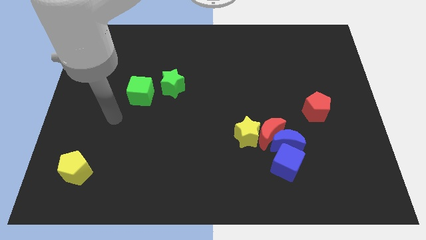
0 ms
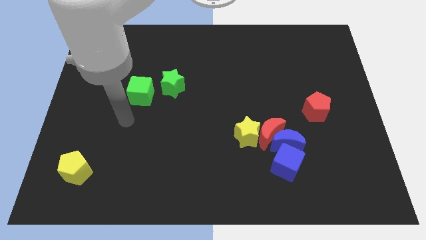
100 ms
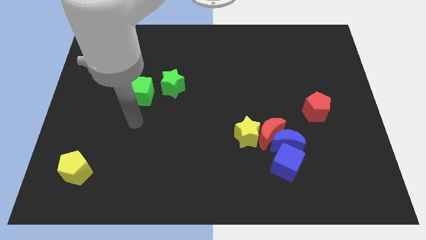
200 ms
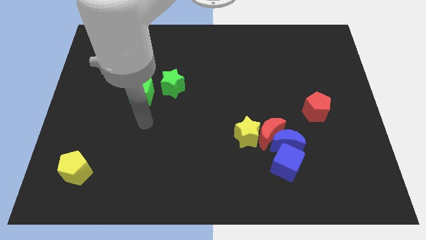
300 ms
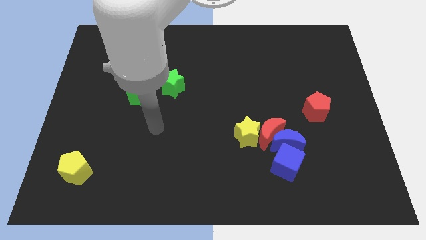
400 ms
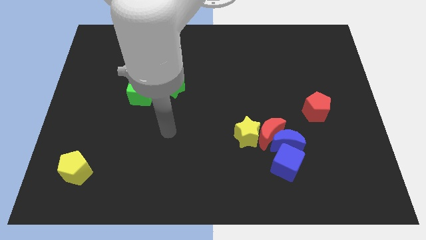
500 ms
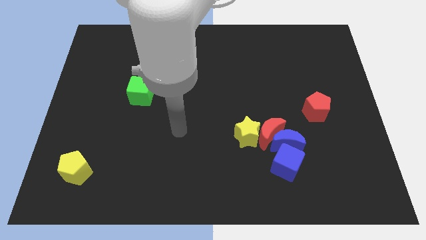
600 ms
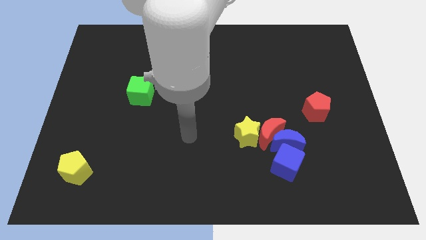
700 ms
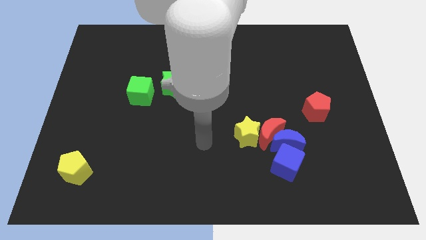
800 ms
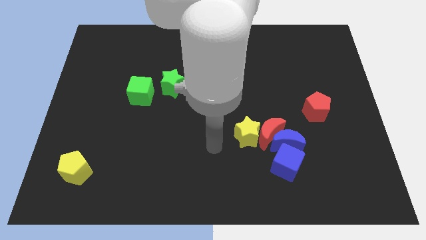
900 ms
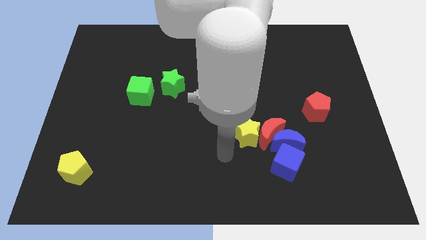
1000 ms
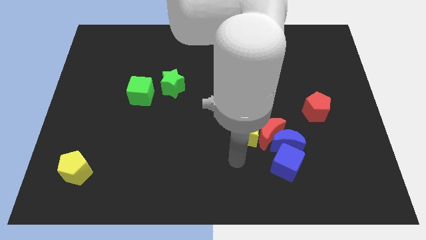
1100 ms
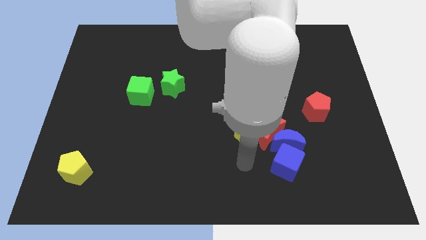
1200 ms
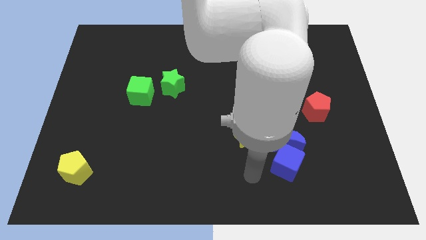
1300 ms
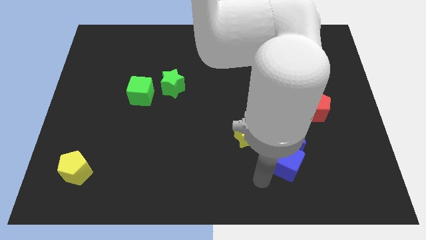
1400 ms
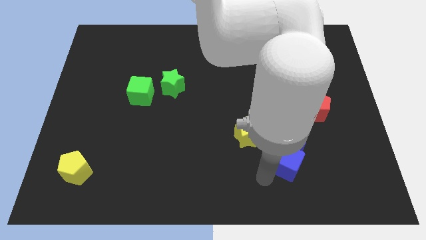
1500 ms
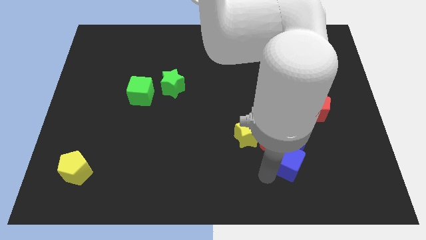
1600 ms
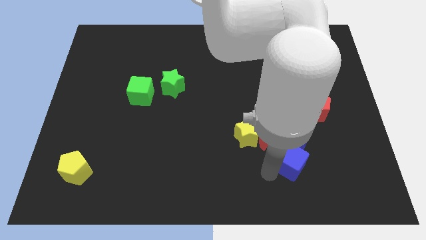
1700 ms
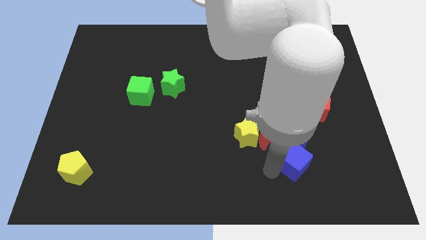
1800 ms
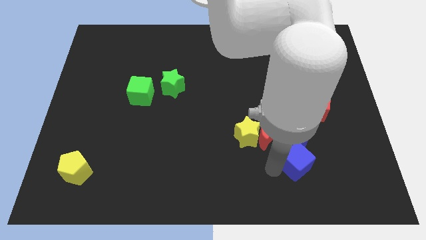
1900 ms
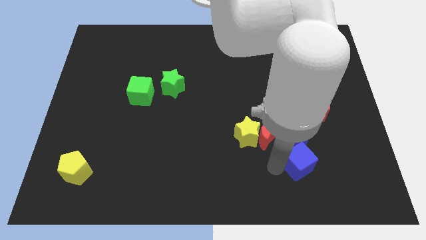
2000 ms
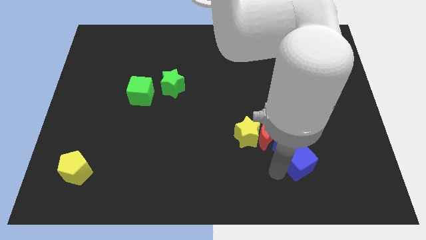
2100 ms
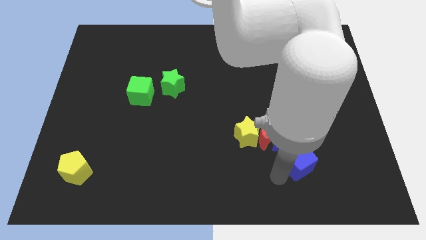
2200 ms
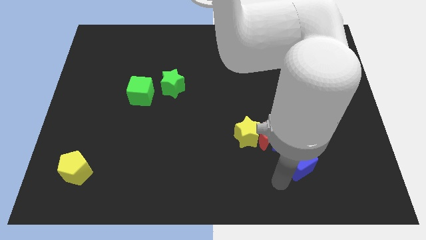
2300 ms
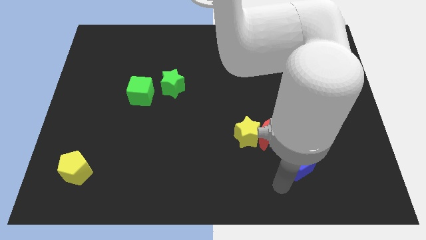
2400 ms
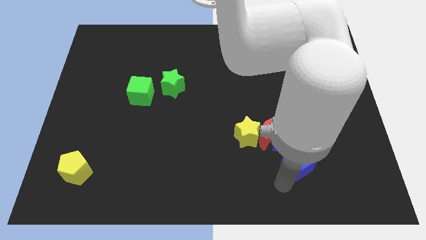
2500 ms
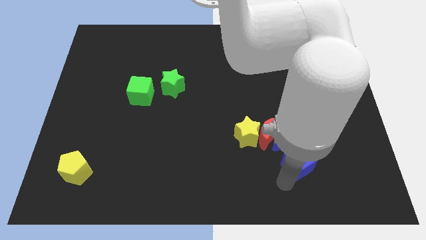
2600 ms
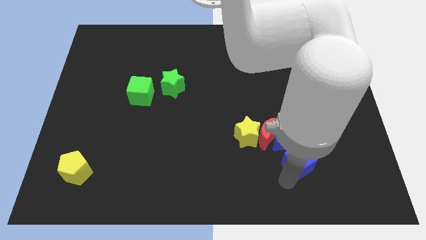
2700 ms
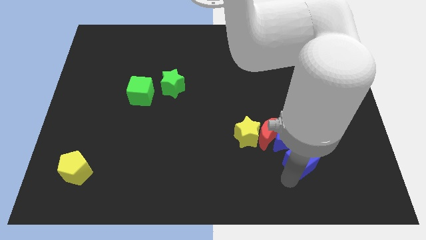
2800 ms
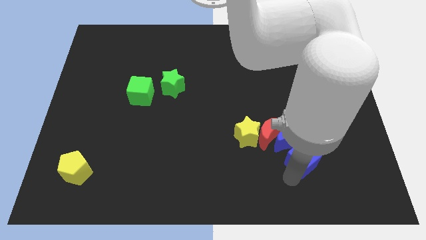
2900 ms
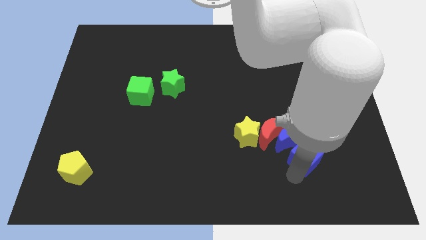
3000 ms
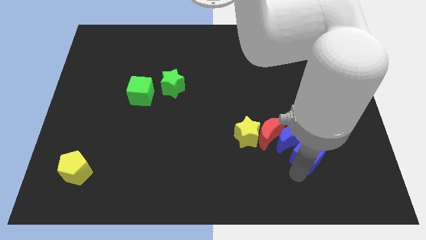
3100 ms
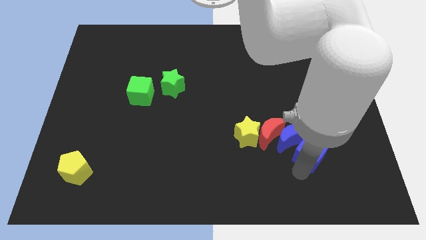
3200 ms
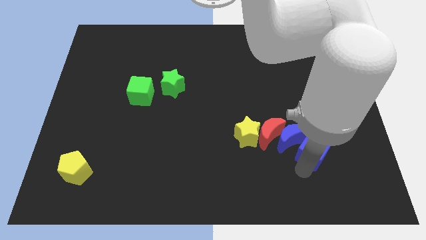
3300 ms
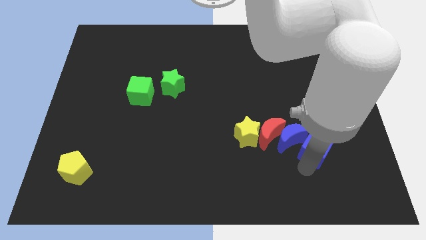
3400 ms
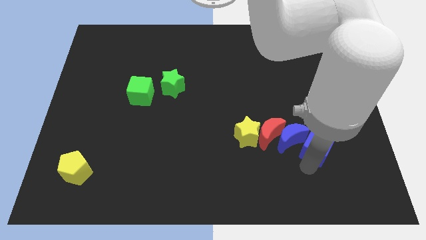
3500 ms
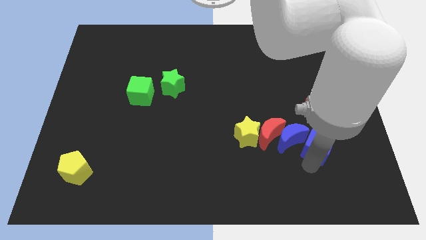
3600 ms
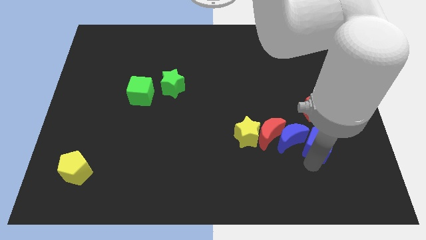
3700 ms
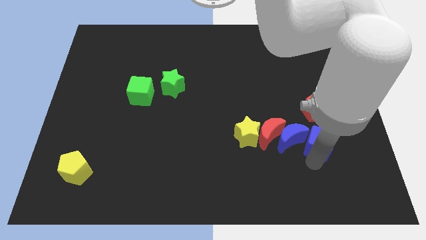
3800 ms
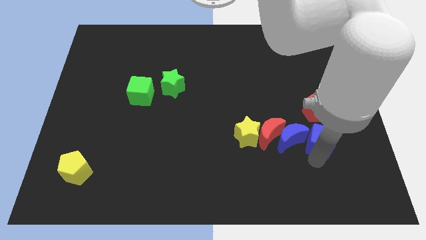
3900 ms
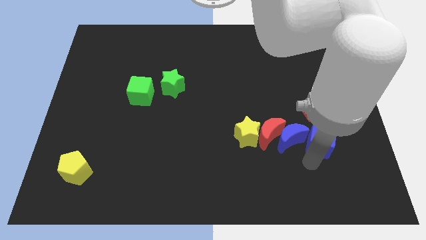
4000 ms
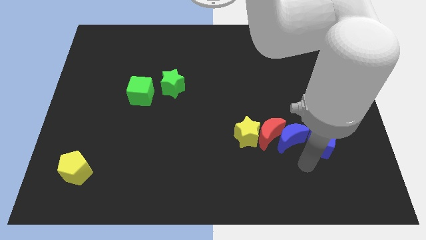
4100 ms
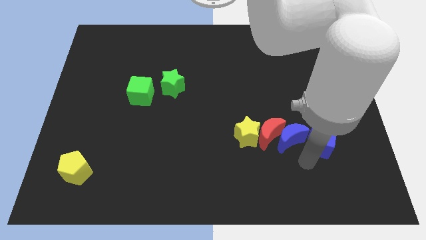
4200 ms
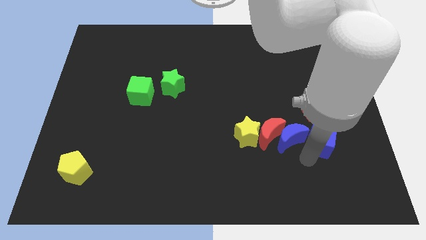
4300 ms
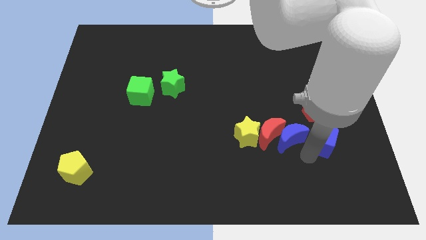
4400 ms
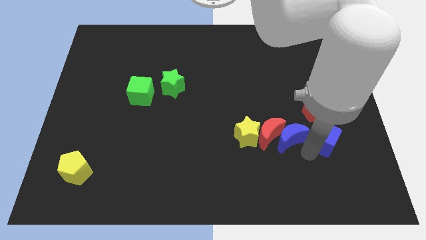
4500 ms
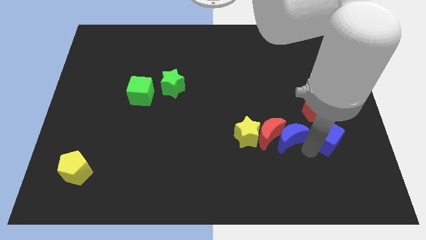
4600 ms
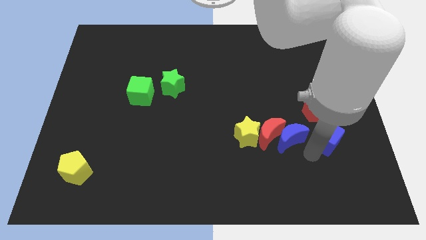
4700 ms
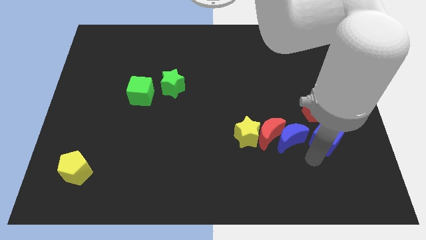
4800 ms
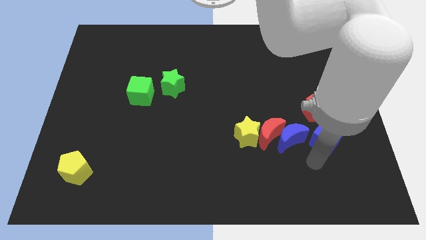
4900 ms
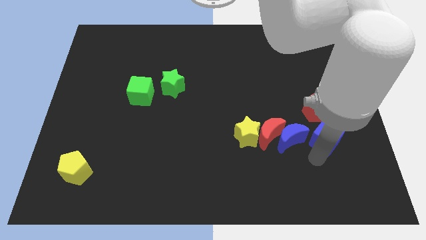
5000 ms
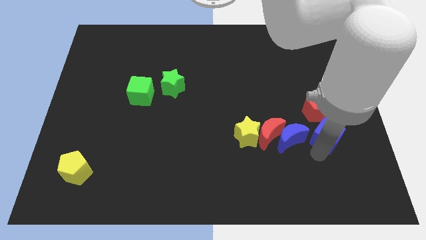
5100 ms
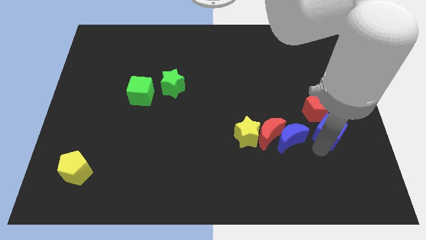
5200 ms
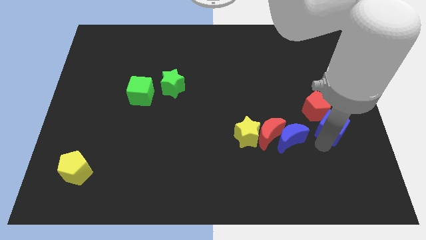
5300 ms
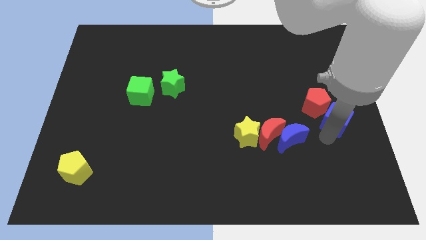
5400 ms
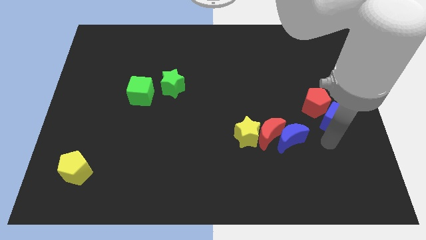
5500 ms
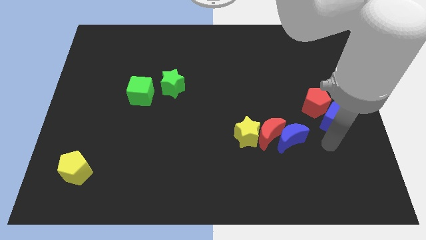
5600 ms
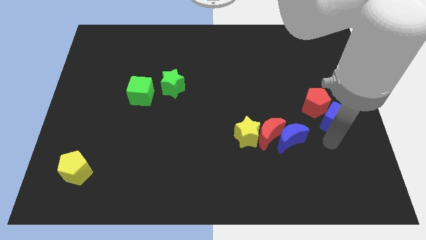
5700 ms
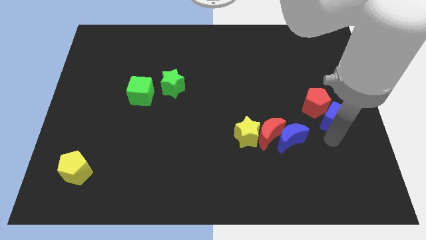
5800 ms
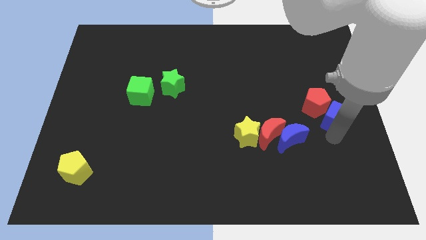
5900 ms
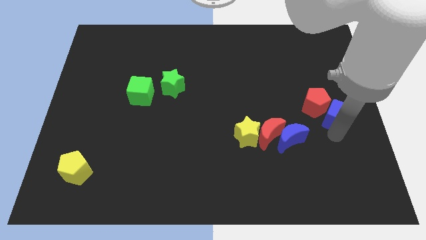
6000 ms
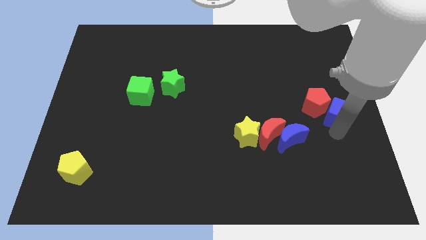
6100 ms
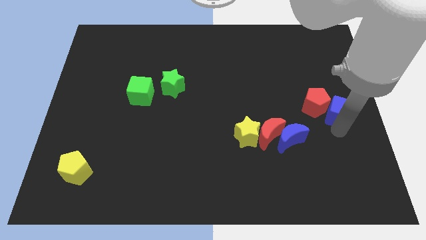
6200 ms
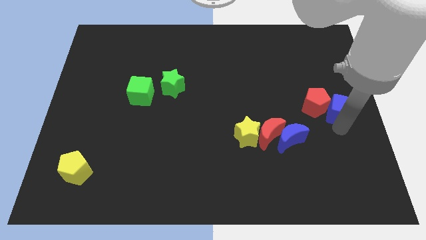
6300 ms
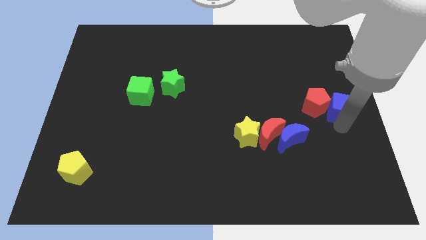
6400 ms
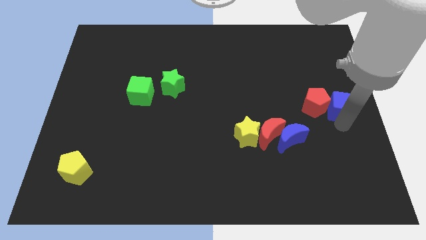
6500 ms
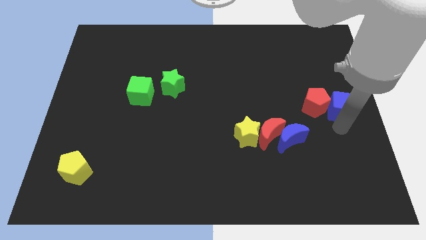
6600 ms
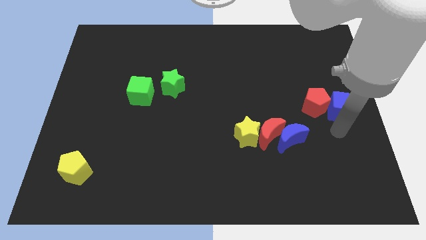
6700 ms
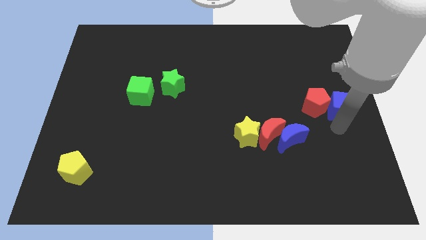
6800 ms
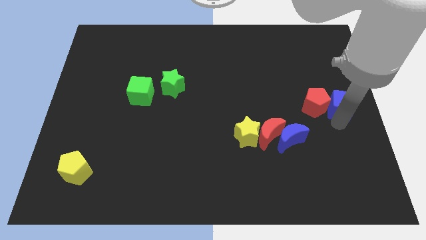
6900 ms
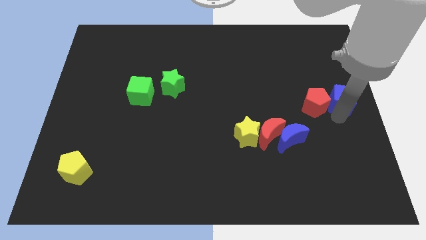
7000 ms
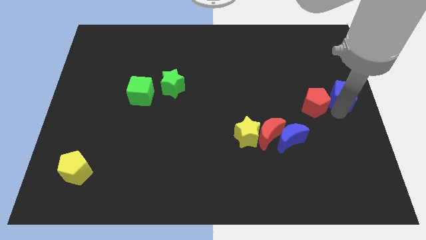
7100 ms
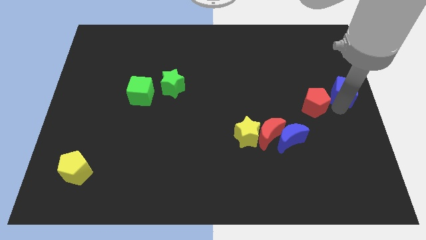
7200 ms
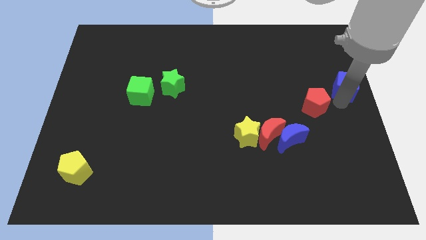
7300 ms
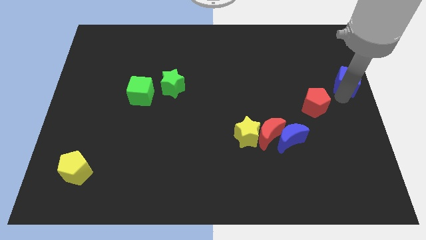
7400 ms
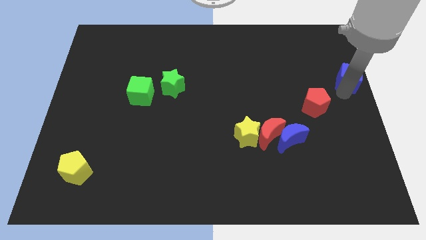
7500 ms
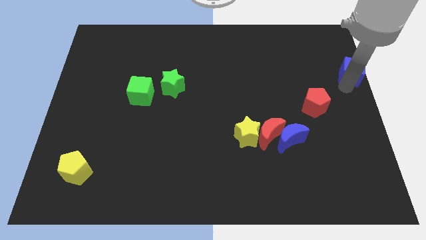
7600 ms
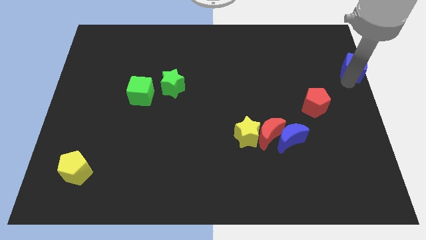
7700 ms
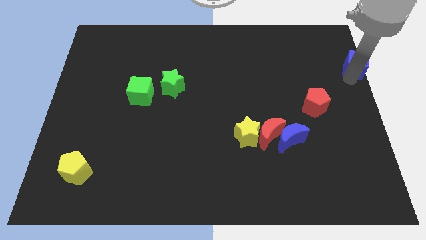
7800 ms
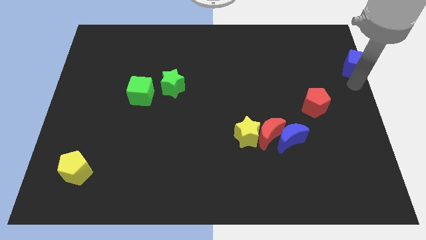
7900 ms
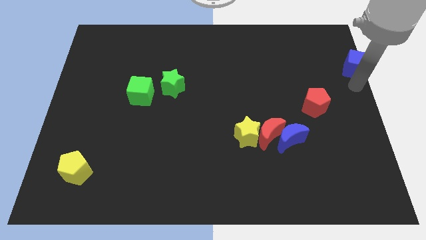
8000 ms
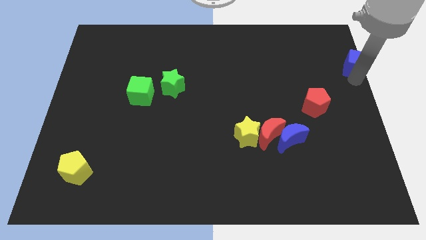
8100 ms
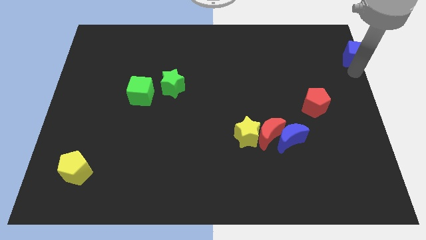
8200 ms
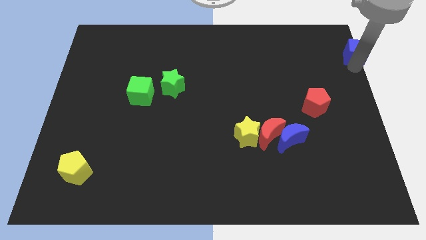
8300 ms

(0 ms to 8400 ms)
slide the blue cube to the upper right corner
